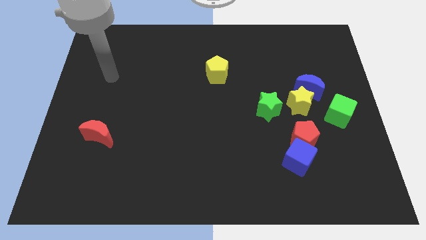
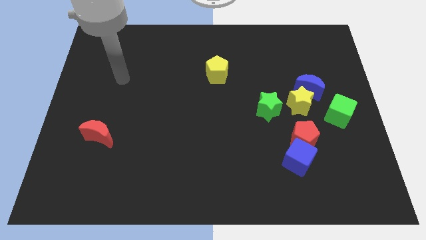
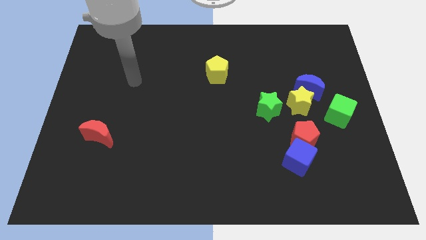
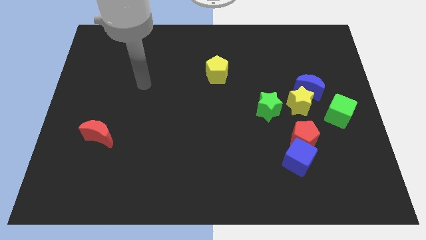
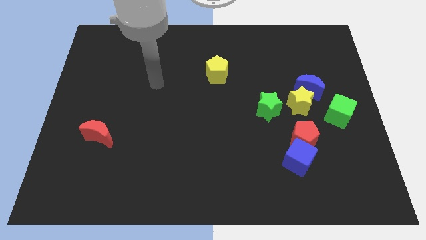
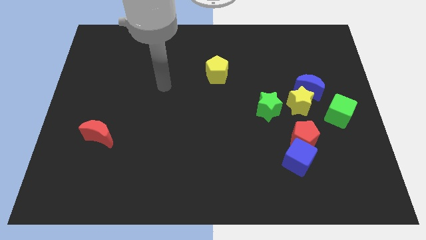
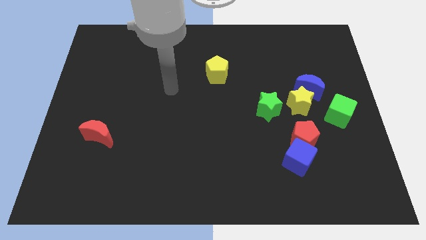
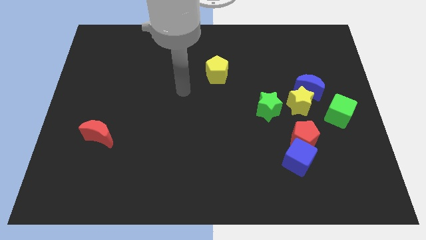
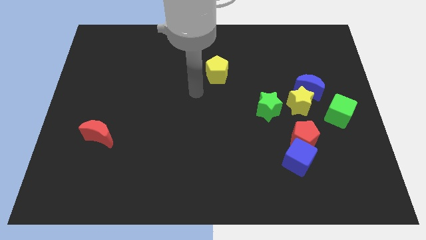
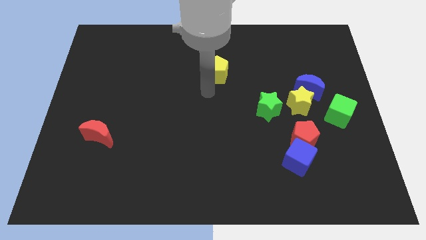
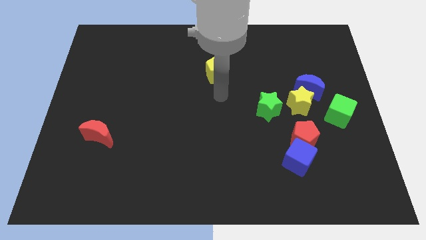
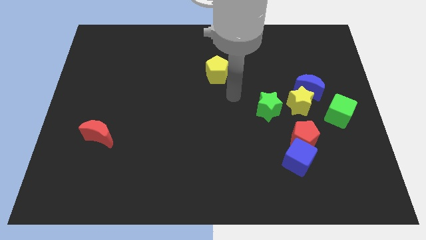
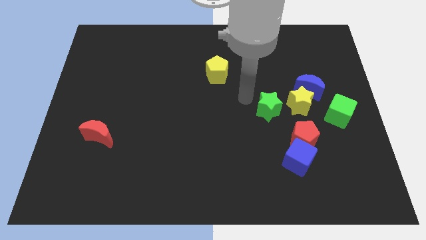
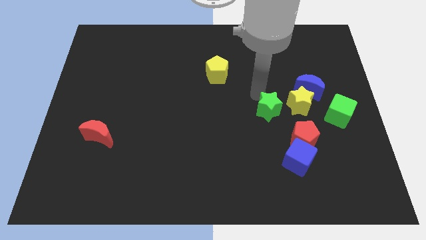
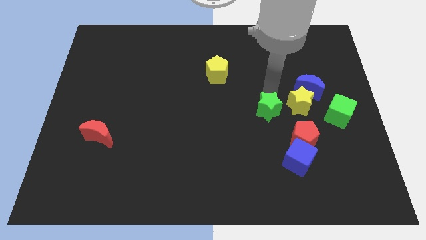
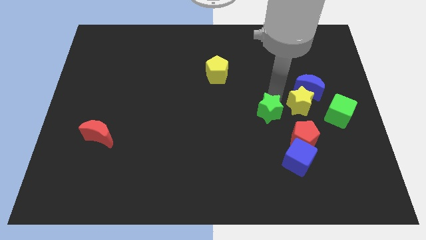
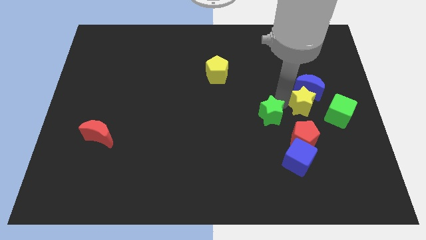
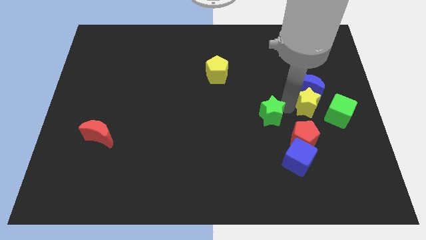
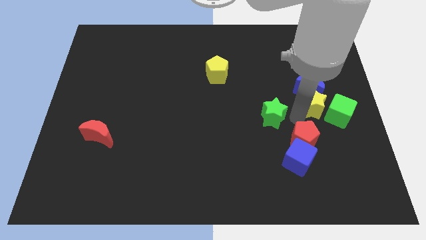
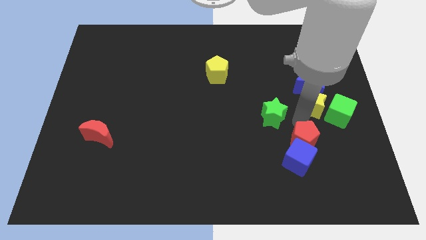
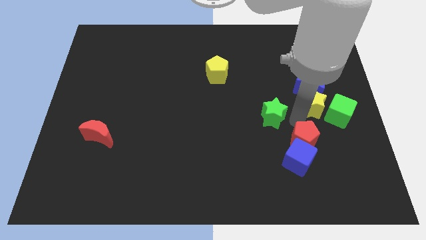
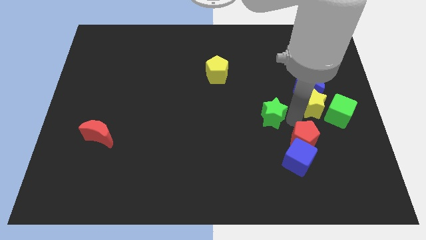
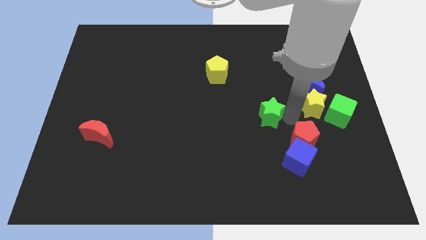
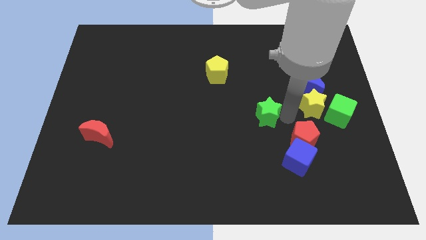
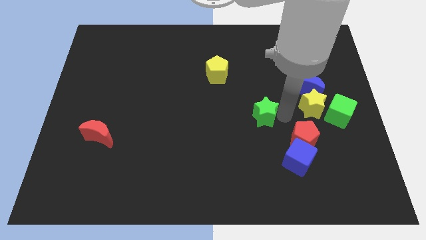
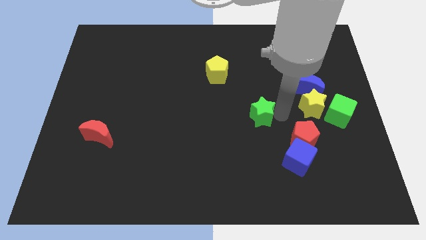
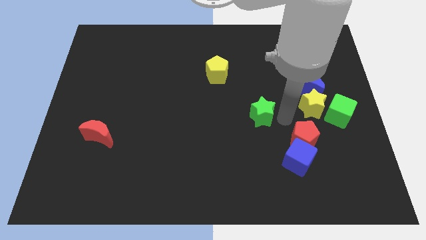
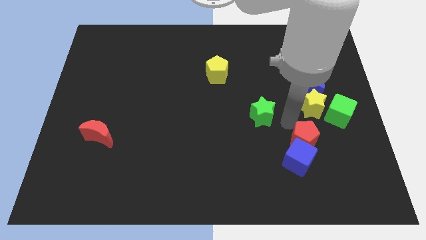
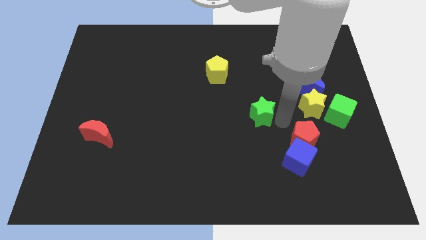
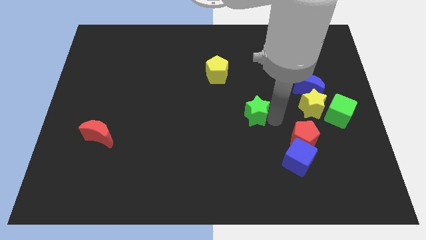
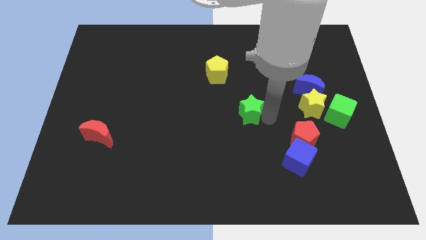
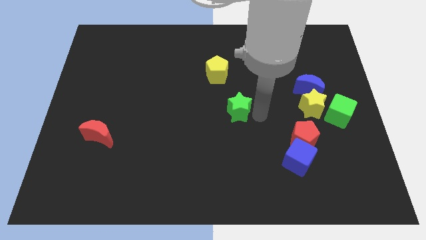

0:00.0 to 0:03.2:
slightly move the green star to the left

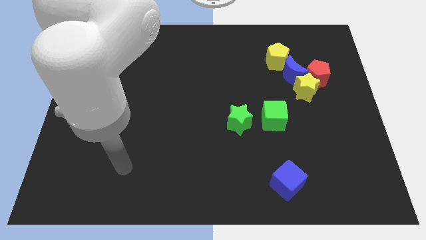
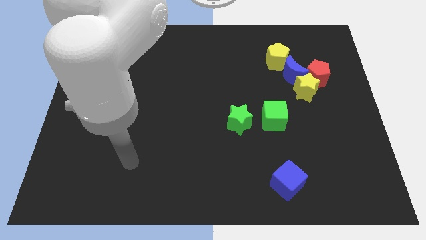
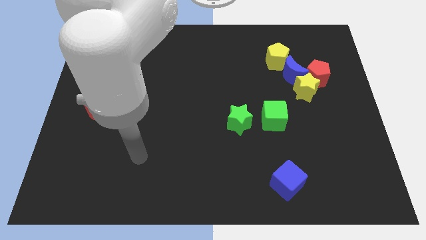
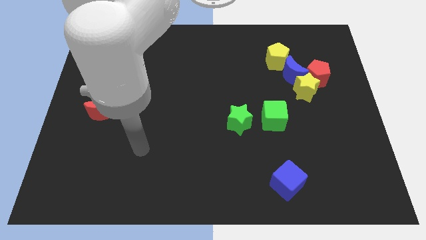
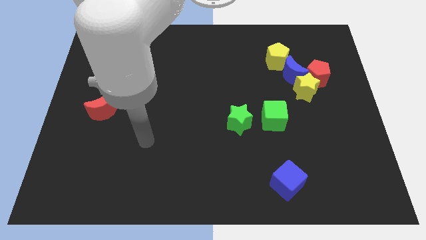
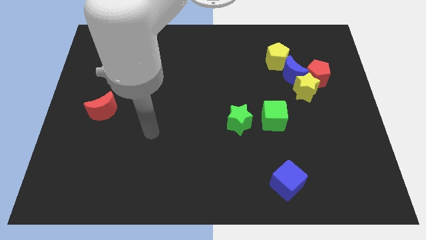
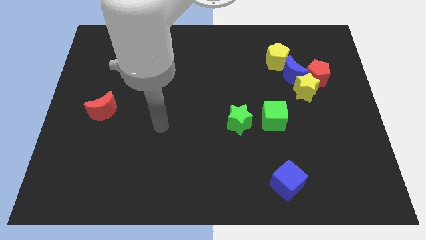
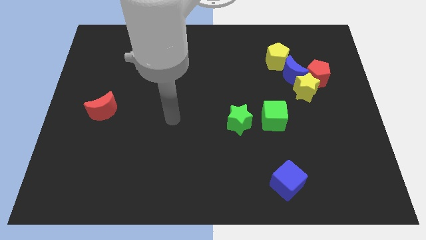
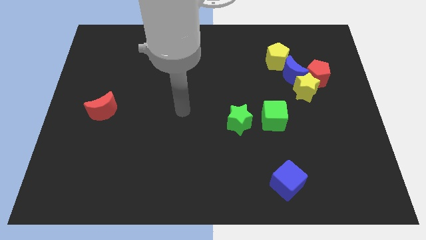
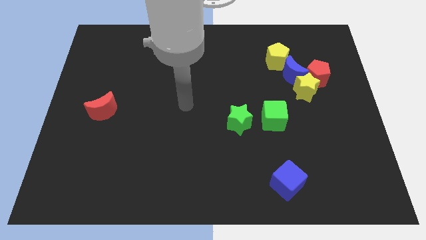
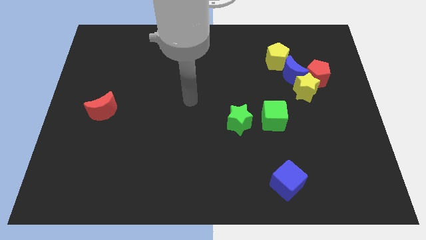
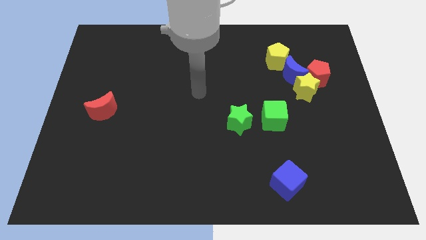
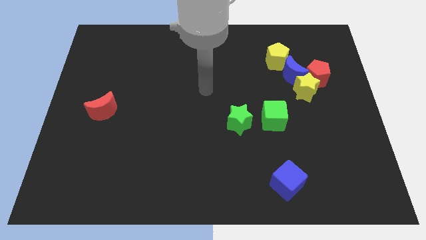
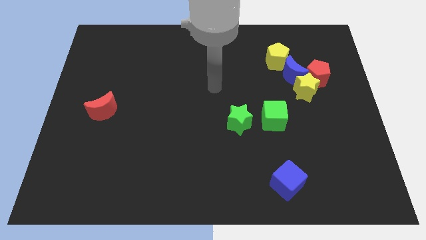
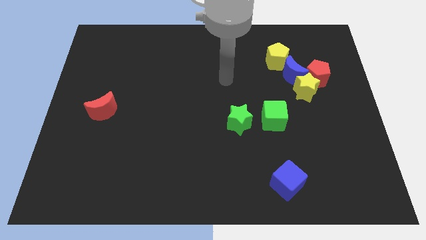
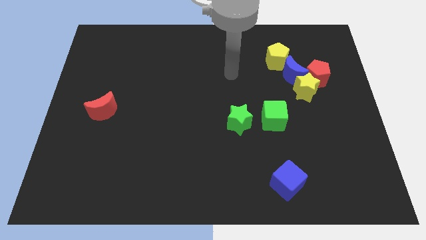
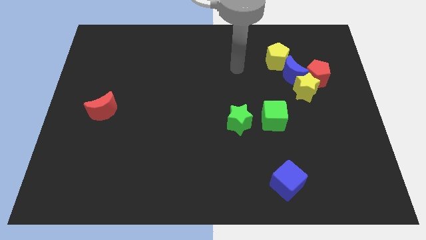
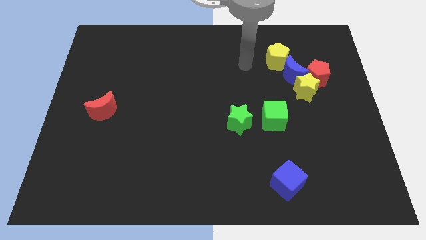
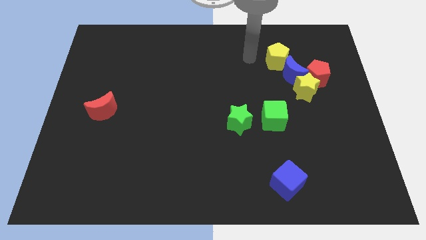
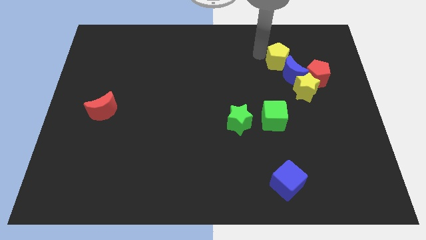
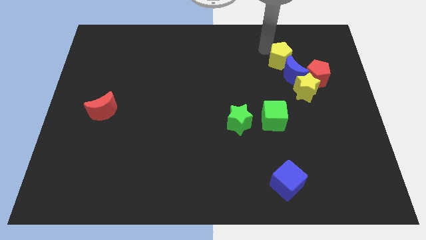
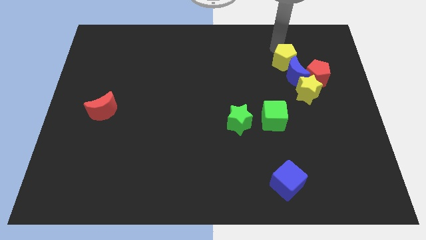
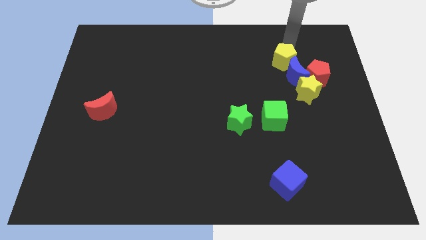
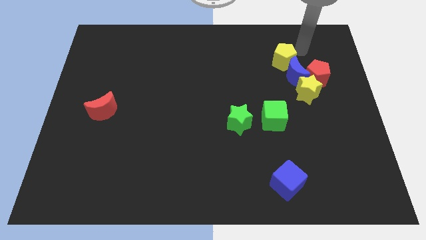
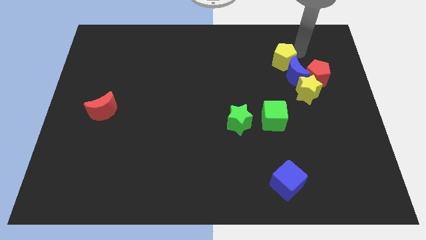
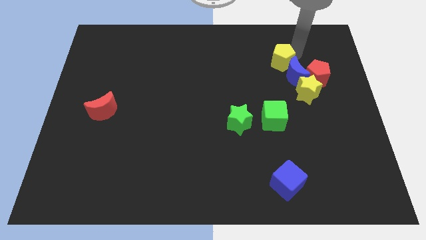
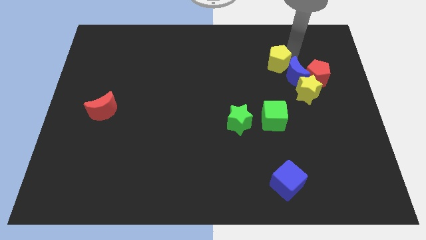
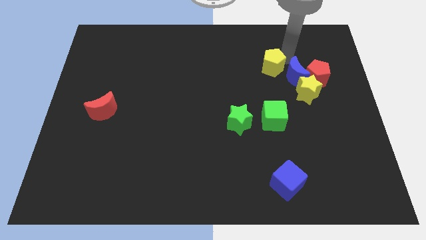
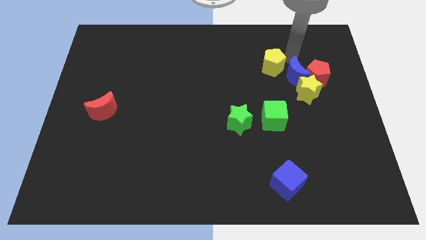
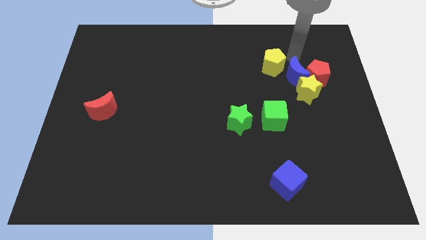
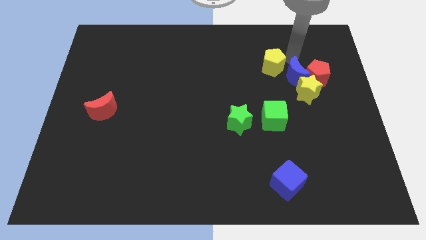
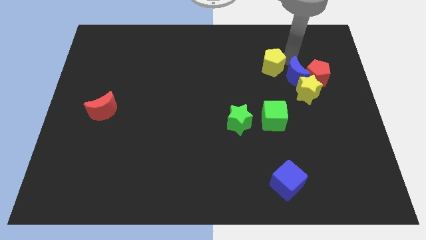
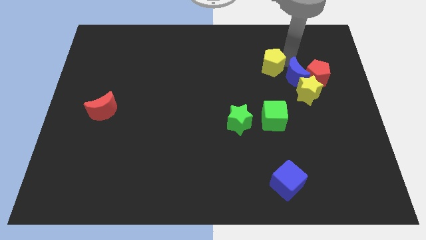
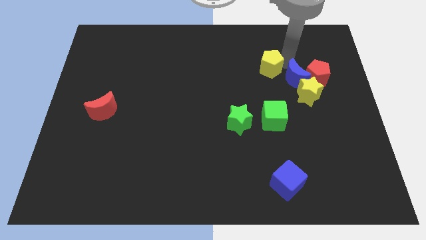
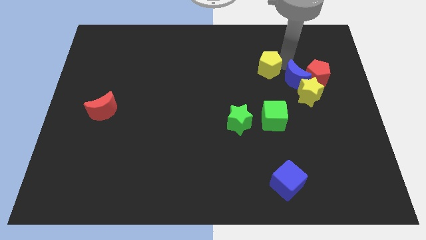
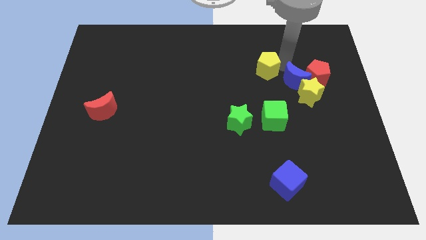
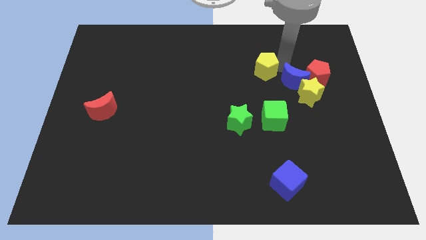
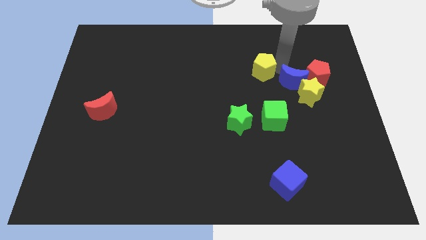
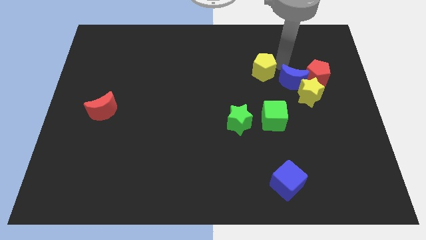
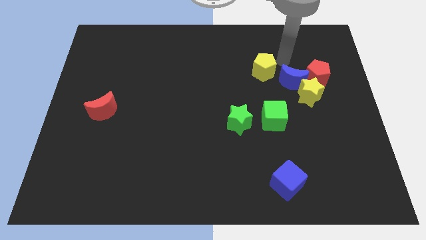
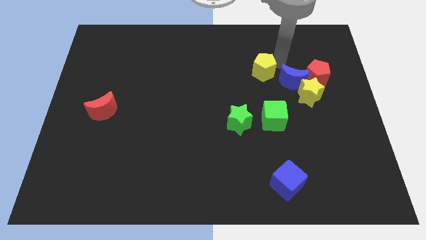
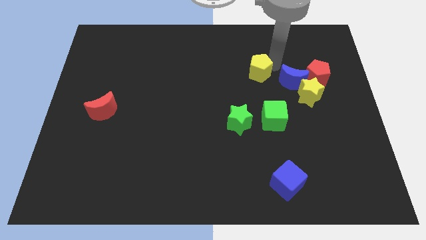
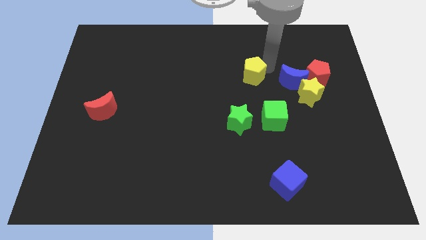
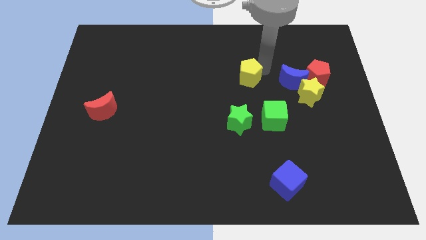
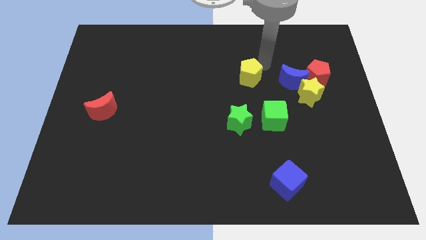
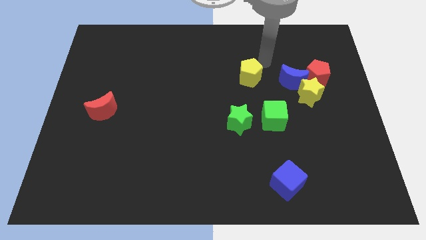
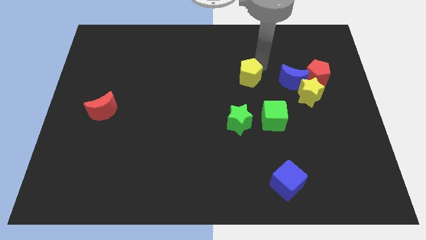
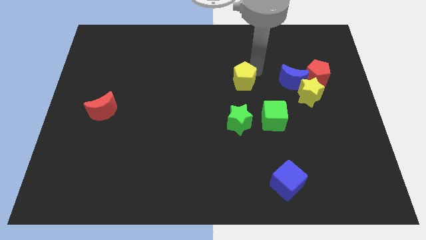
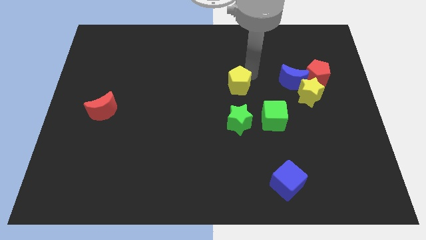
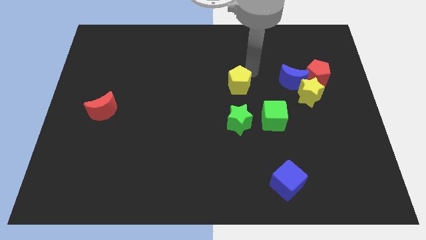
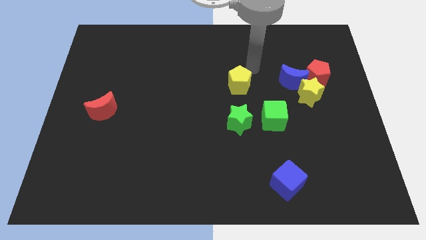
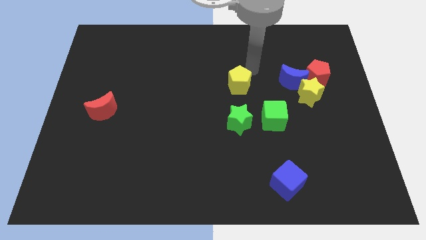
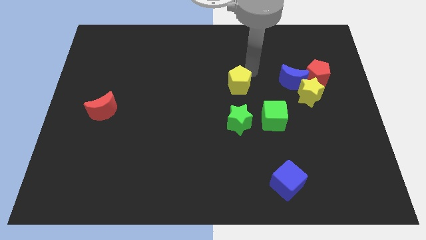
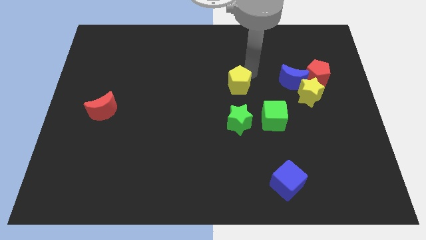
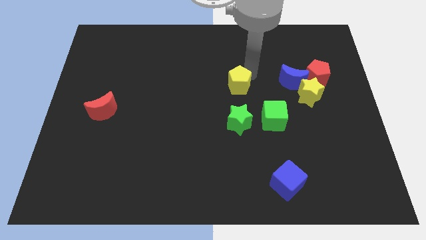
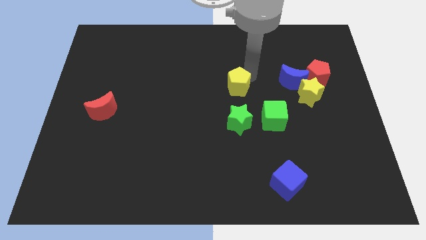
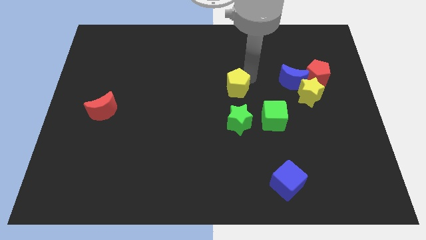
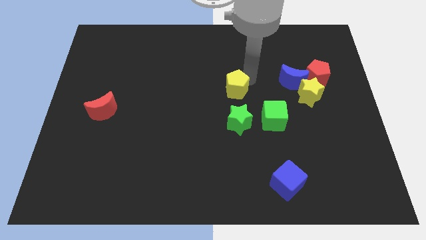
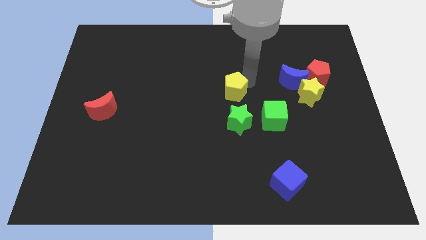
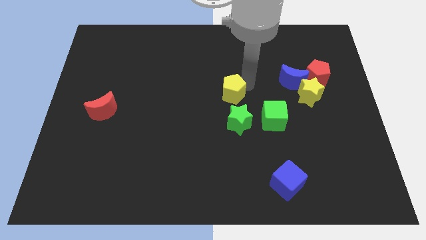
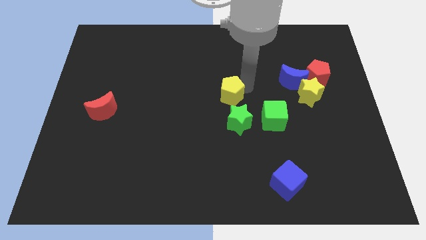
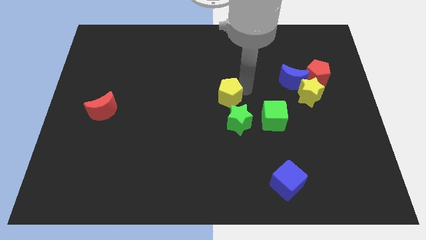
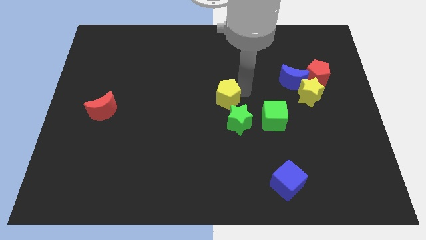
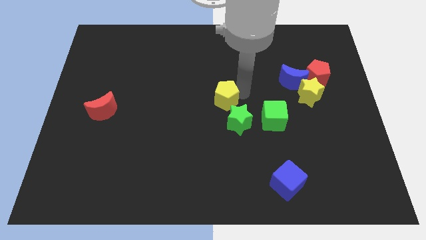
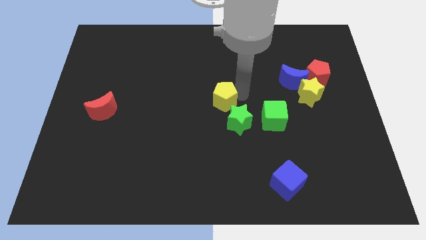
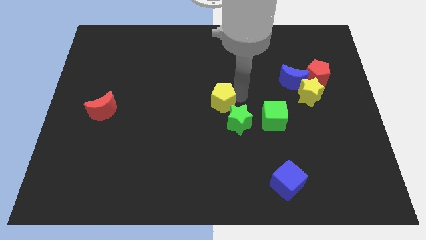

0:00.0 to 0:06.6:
slide the yellow pentagon downwards and then left
